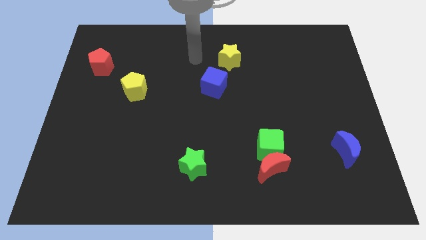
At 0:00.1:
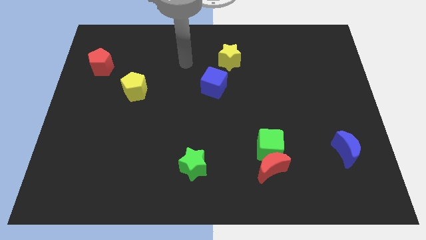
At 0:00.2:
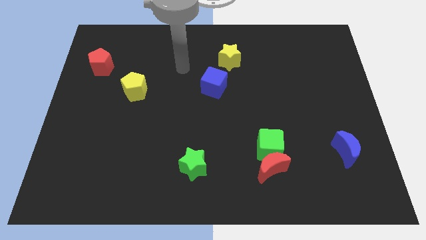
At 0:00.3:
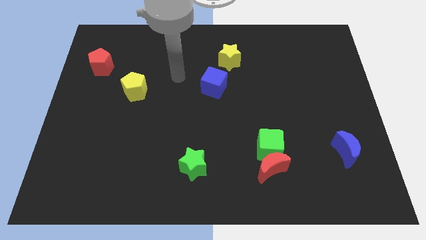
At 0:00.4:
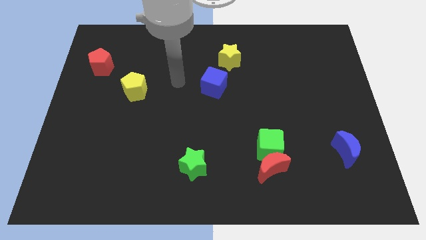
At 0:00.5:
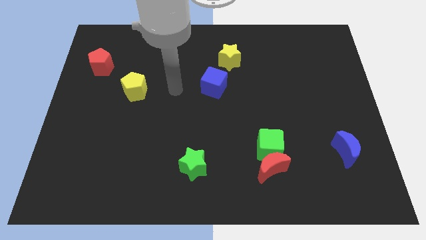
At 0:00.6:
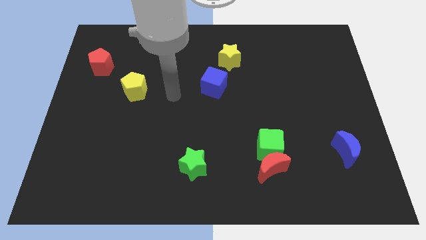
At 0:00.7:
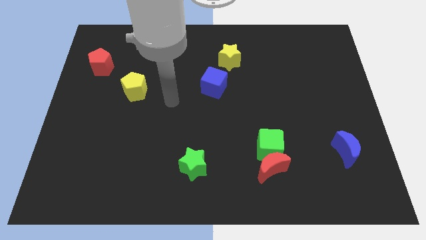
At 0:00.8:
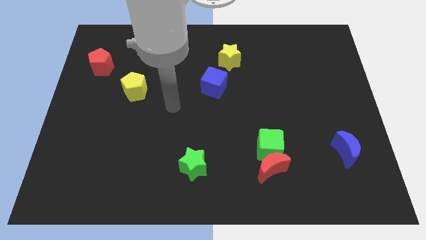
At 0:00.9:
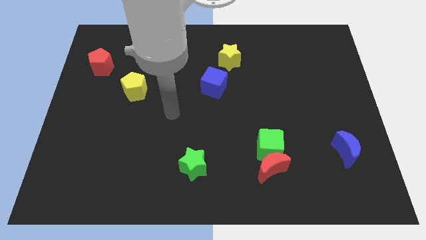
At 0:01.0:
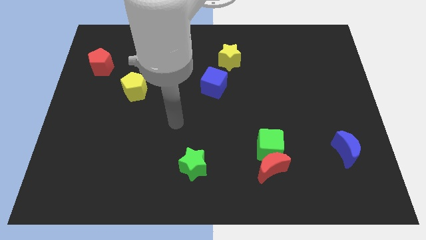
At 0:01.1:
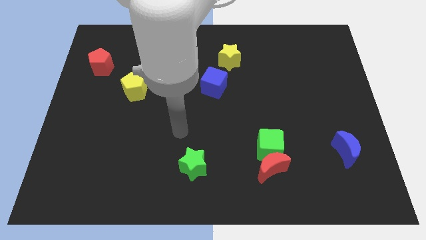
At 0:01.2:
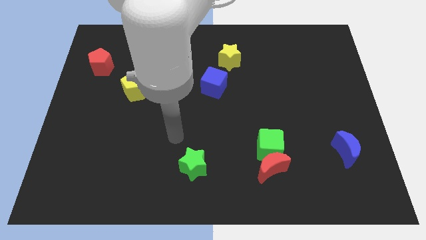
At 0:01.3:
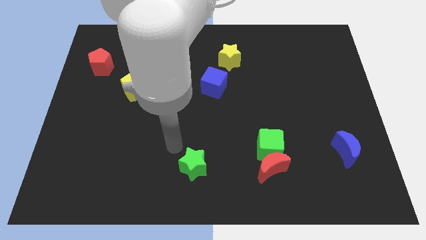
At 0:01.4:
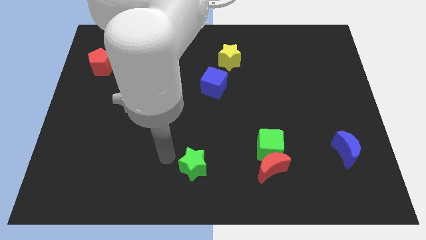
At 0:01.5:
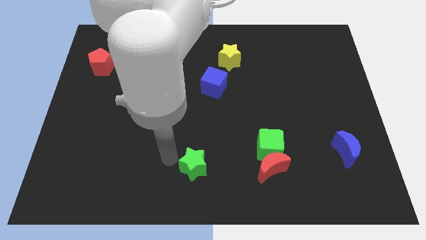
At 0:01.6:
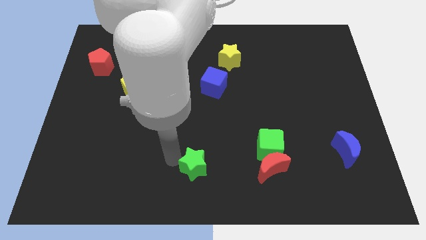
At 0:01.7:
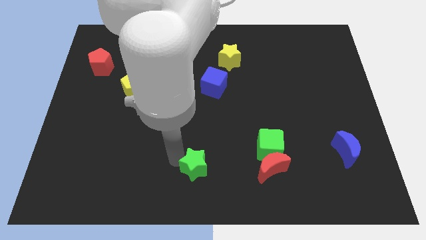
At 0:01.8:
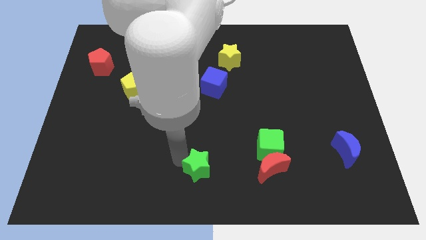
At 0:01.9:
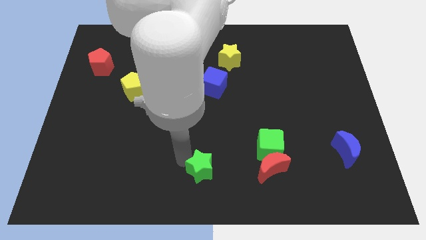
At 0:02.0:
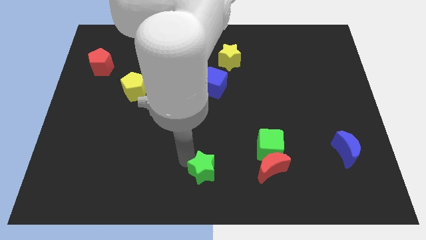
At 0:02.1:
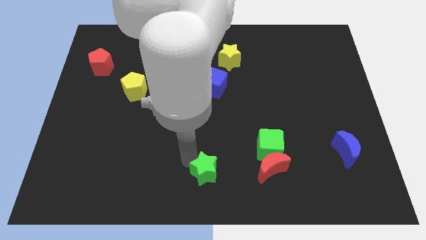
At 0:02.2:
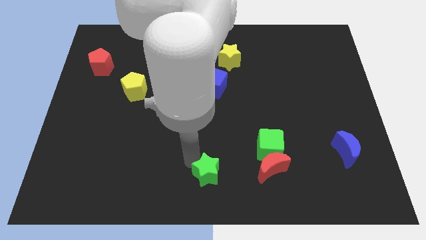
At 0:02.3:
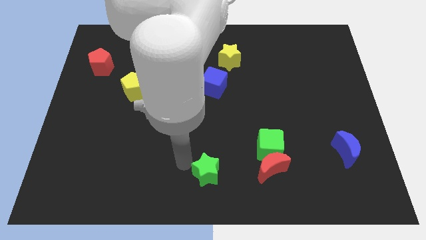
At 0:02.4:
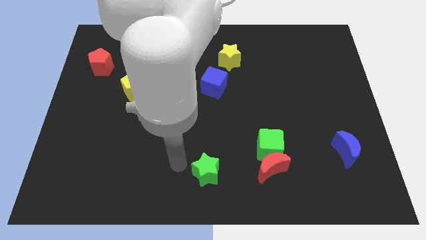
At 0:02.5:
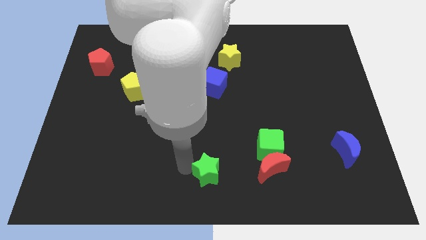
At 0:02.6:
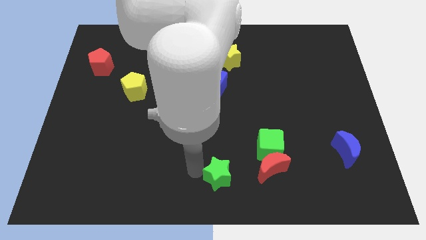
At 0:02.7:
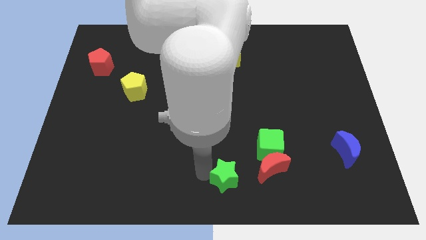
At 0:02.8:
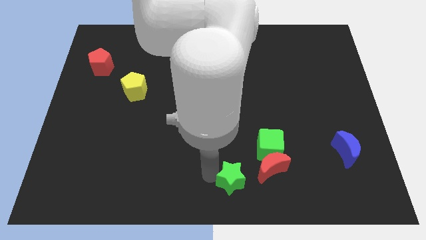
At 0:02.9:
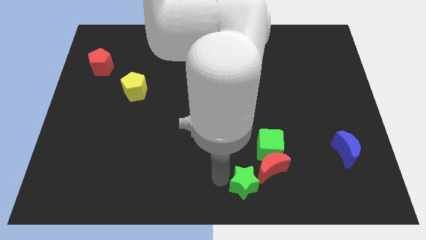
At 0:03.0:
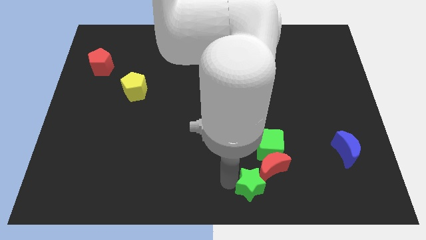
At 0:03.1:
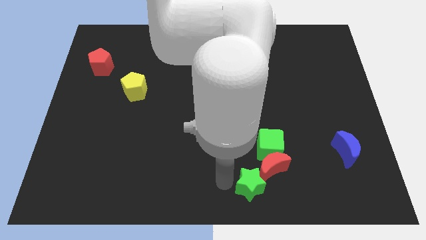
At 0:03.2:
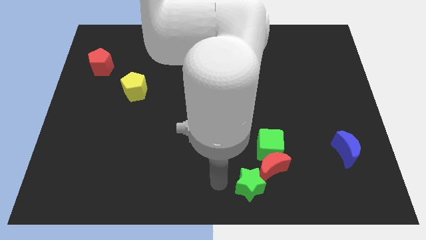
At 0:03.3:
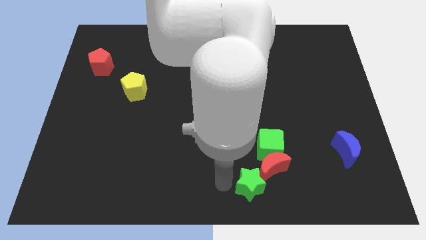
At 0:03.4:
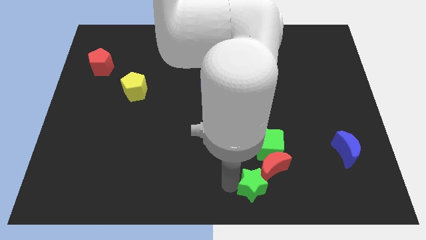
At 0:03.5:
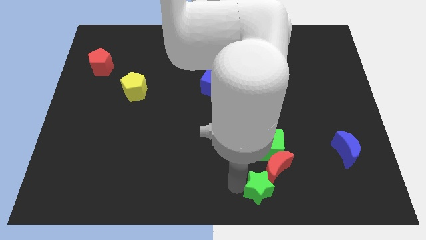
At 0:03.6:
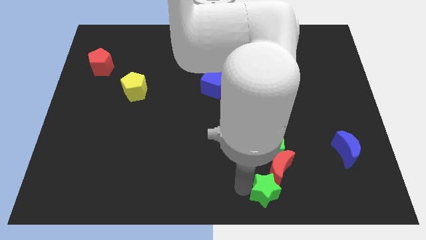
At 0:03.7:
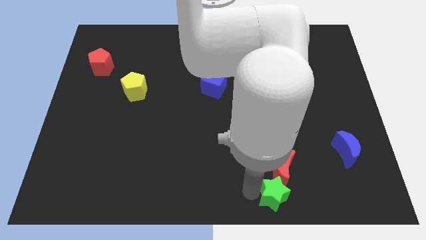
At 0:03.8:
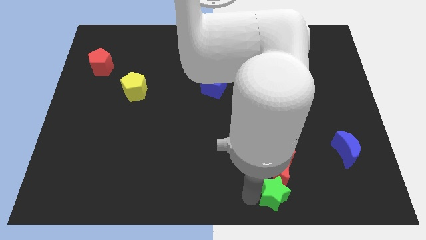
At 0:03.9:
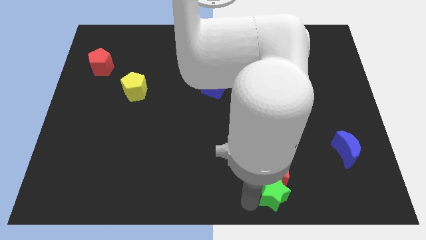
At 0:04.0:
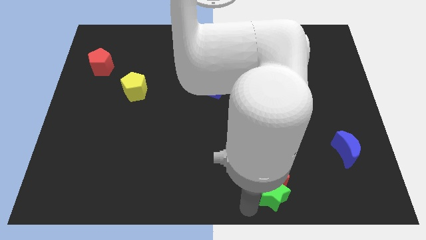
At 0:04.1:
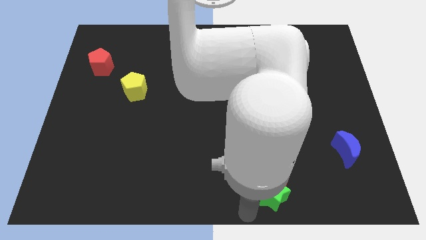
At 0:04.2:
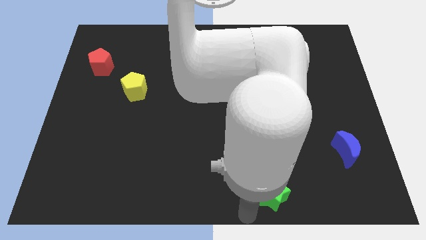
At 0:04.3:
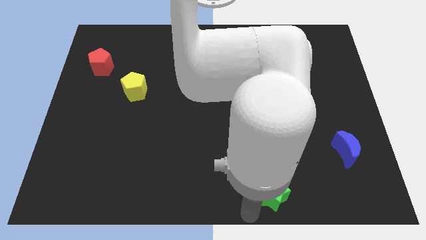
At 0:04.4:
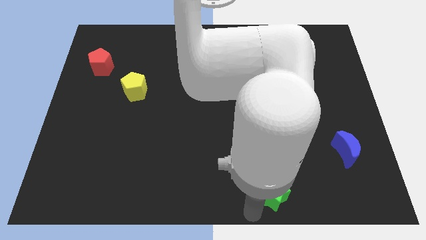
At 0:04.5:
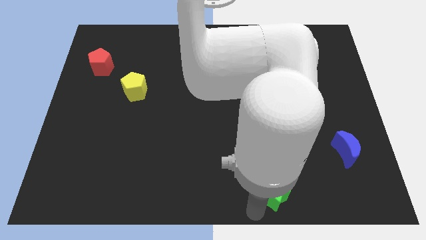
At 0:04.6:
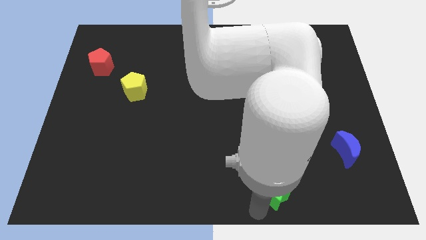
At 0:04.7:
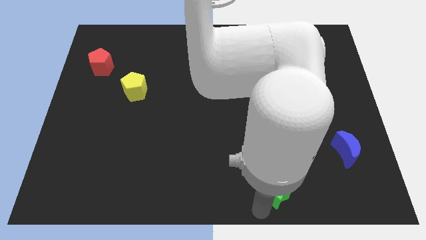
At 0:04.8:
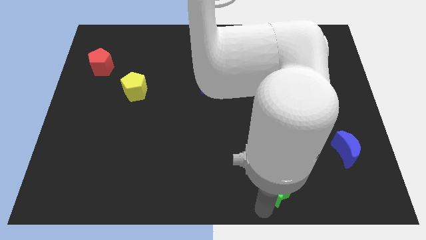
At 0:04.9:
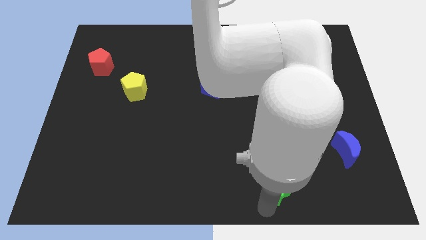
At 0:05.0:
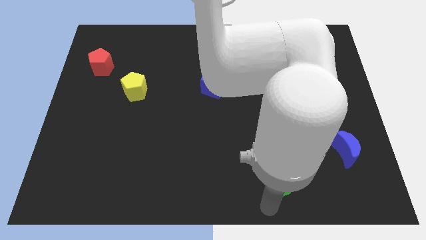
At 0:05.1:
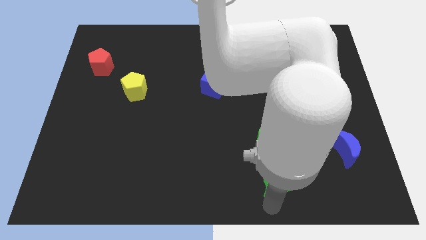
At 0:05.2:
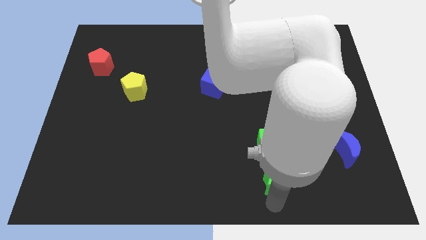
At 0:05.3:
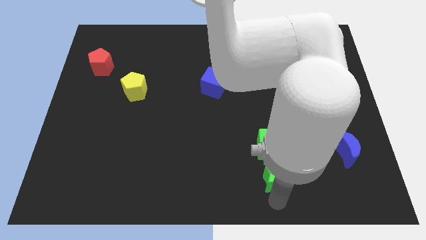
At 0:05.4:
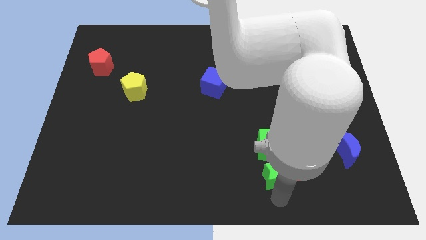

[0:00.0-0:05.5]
push the green star to the bottom right of the green cube

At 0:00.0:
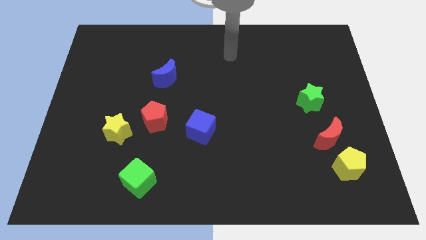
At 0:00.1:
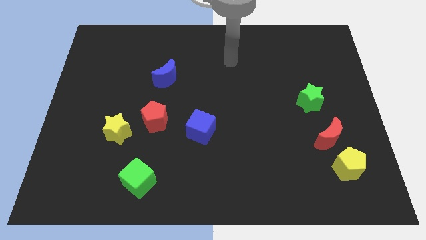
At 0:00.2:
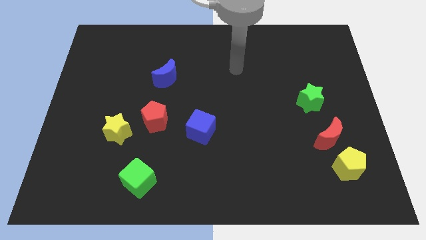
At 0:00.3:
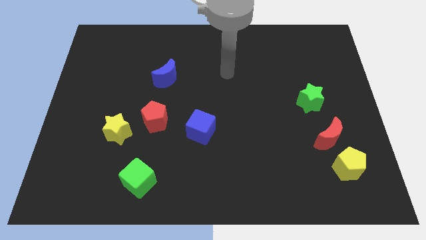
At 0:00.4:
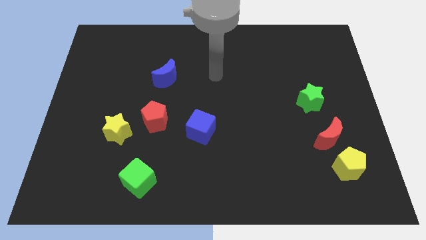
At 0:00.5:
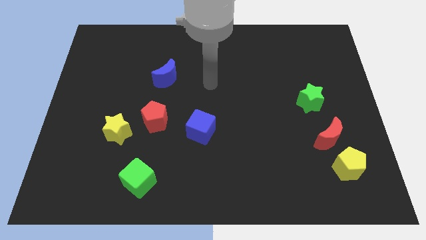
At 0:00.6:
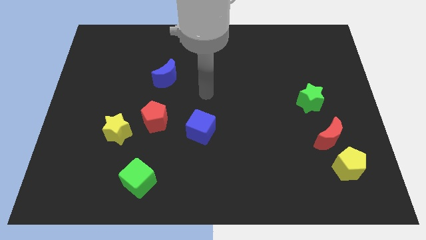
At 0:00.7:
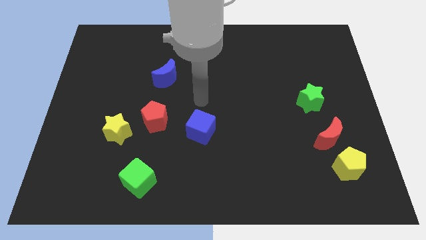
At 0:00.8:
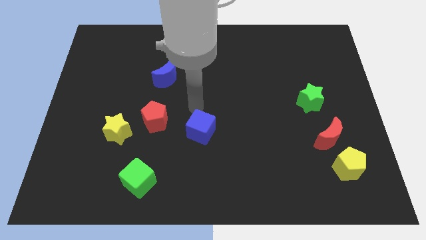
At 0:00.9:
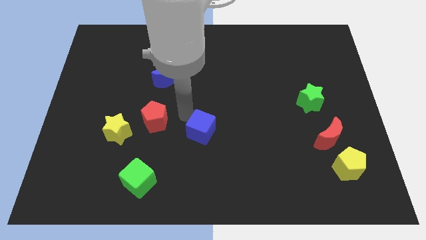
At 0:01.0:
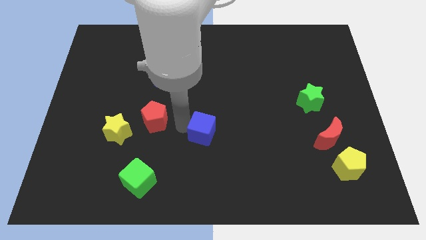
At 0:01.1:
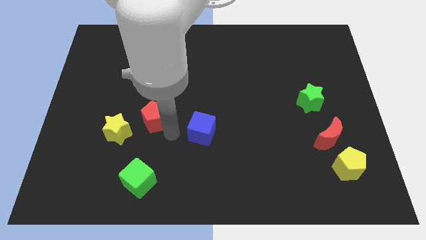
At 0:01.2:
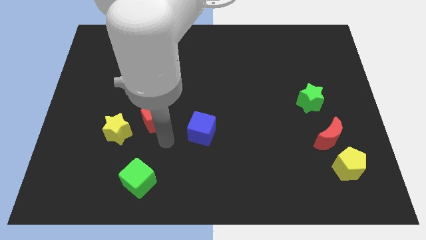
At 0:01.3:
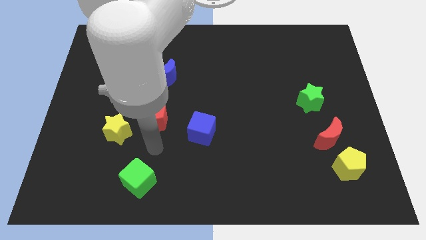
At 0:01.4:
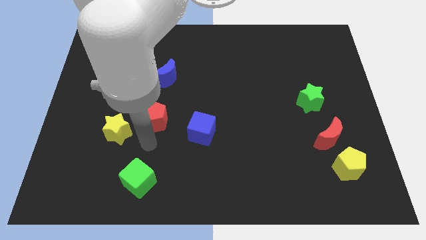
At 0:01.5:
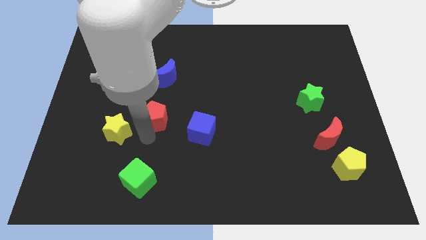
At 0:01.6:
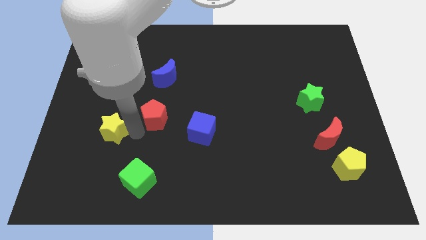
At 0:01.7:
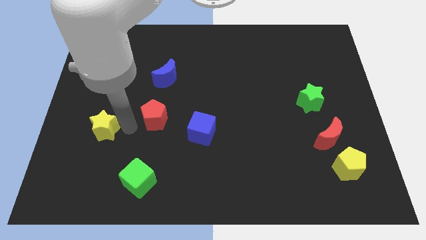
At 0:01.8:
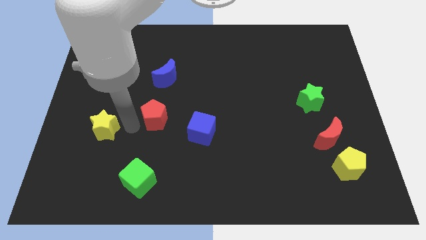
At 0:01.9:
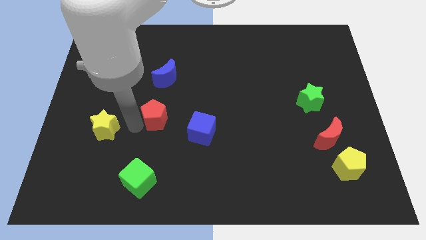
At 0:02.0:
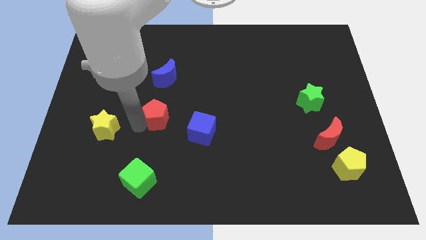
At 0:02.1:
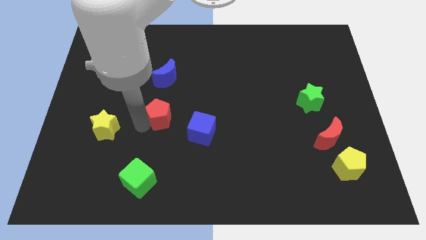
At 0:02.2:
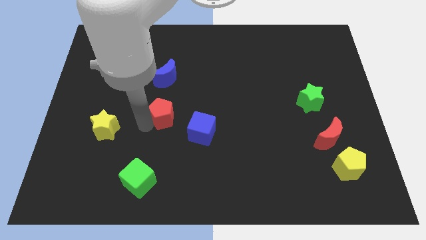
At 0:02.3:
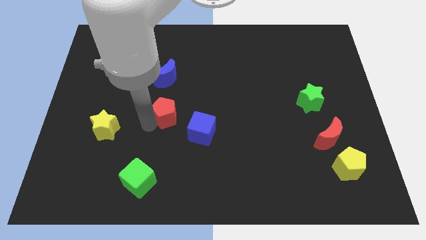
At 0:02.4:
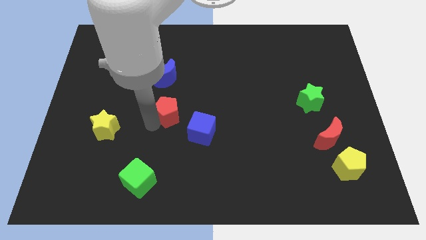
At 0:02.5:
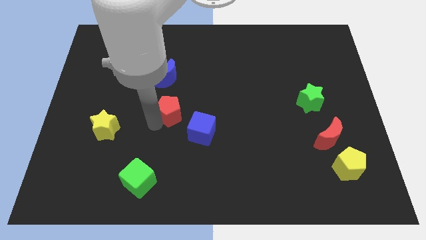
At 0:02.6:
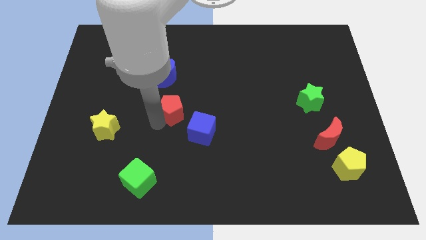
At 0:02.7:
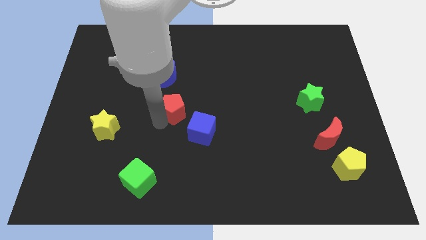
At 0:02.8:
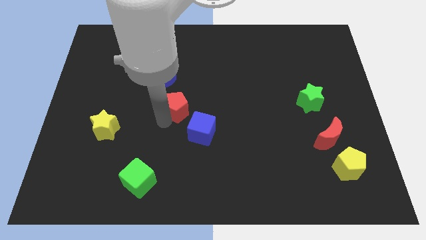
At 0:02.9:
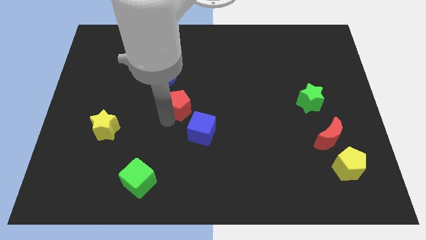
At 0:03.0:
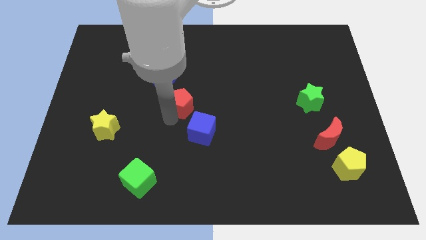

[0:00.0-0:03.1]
move the red pentagon to the top of the blue cube
